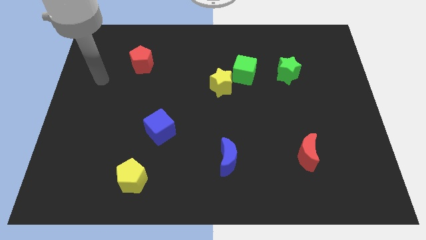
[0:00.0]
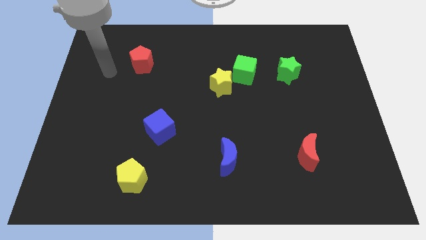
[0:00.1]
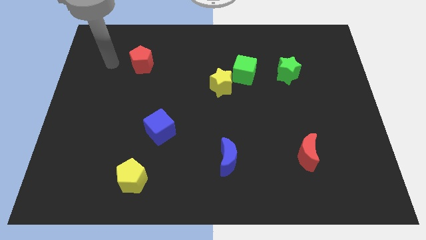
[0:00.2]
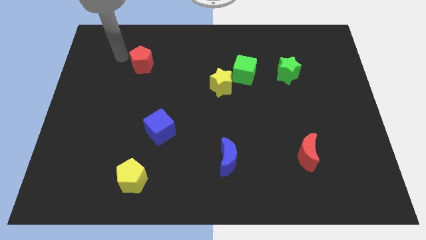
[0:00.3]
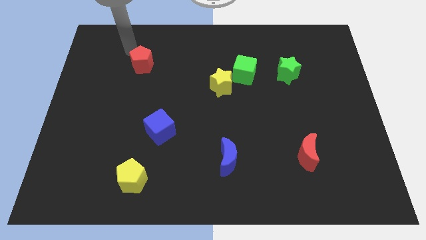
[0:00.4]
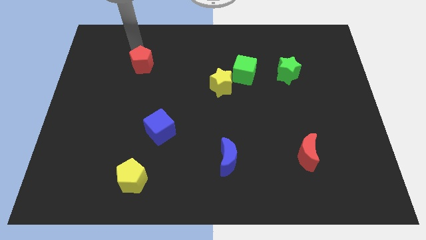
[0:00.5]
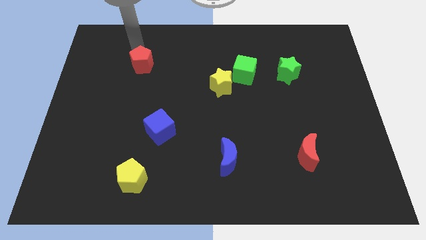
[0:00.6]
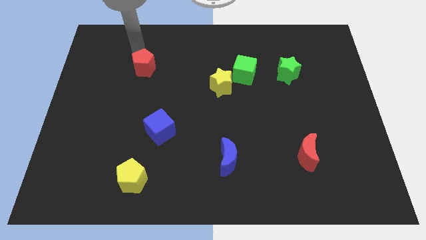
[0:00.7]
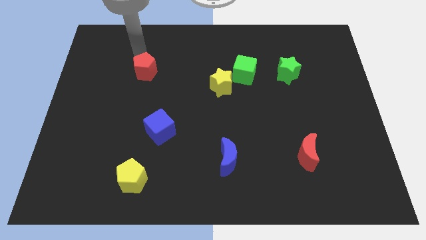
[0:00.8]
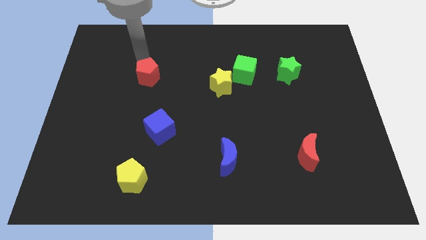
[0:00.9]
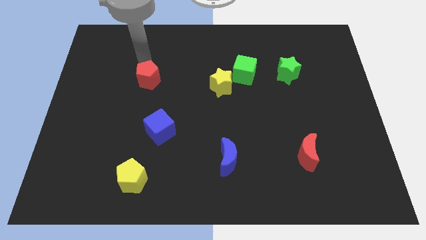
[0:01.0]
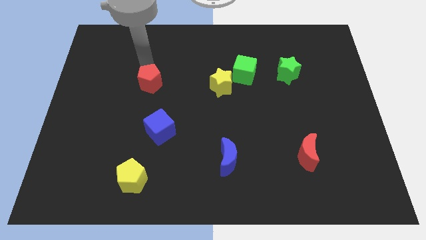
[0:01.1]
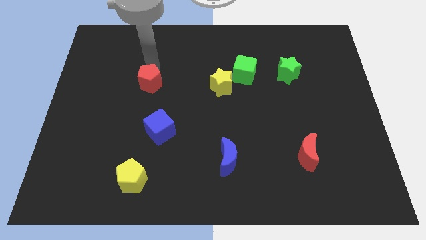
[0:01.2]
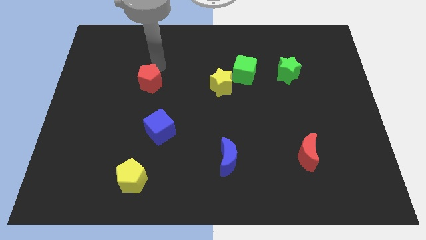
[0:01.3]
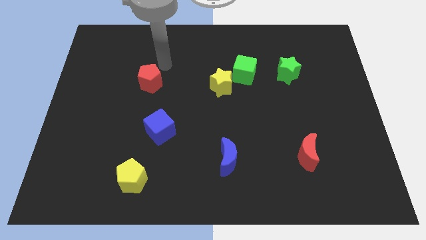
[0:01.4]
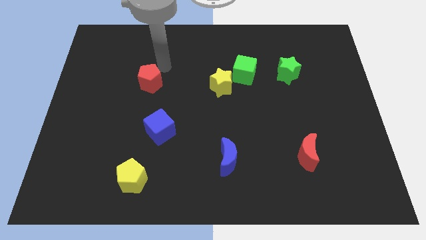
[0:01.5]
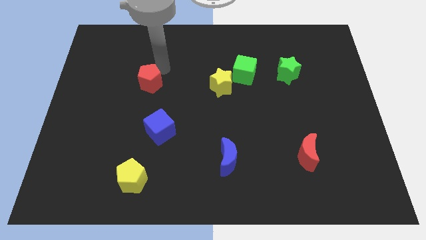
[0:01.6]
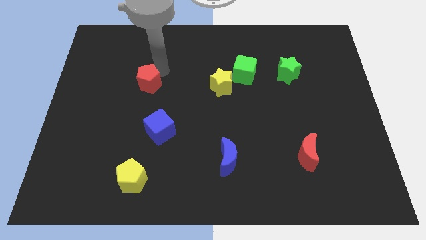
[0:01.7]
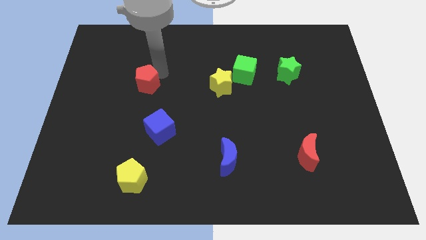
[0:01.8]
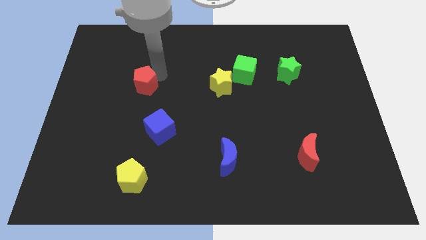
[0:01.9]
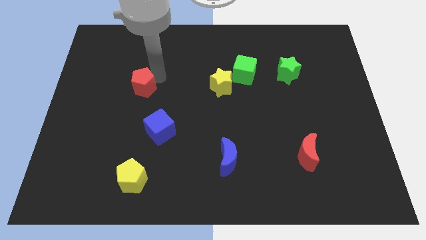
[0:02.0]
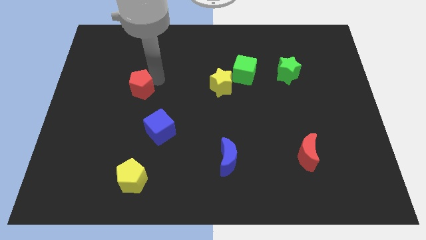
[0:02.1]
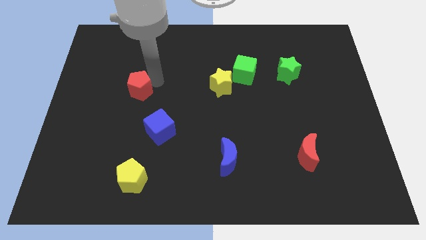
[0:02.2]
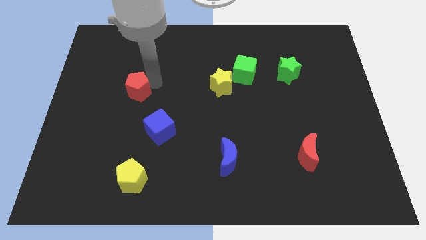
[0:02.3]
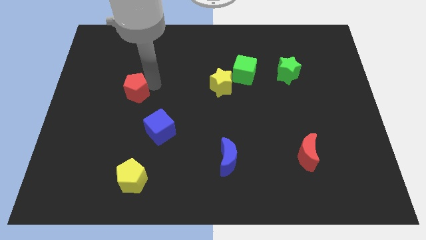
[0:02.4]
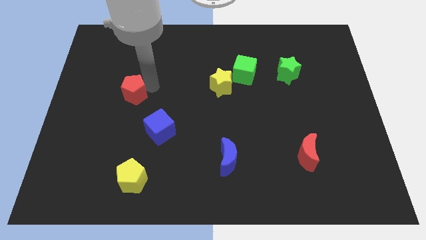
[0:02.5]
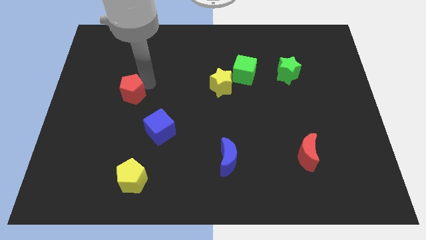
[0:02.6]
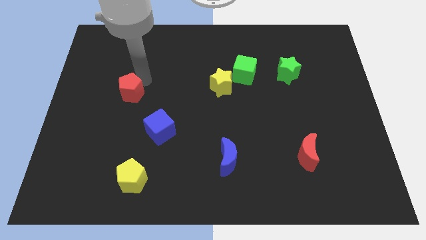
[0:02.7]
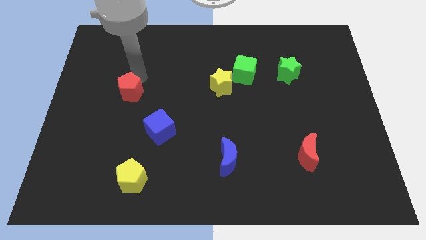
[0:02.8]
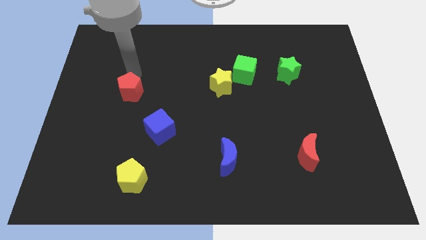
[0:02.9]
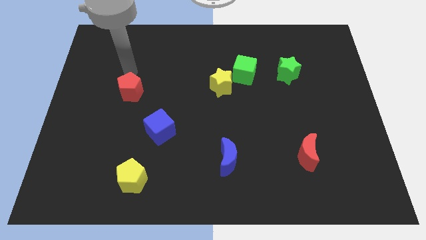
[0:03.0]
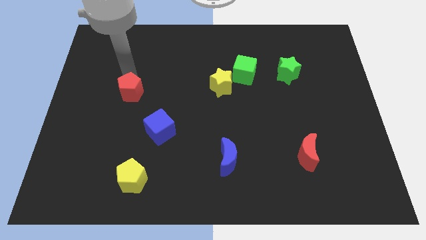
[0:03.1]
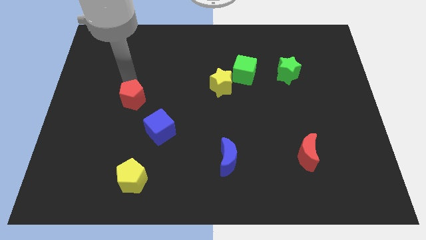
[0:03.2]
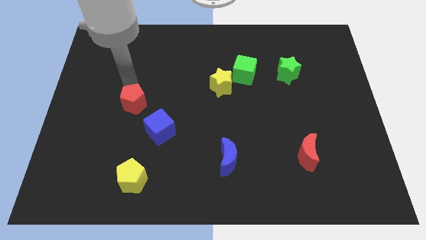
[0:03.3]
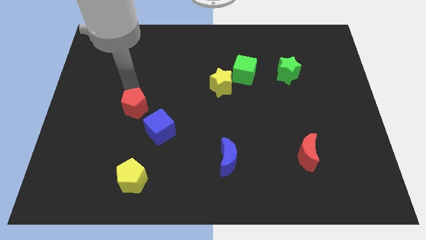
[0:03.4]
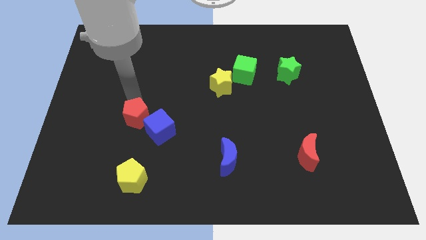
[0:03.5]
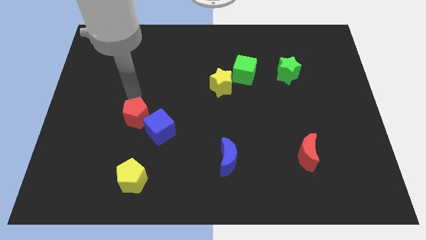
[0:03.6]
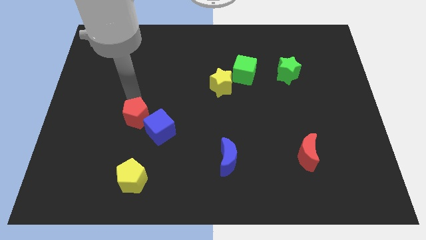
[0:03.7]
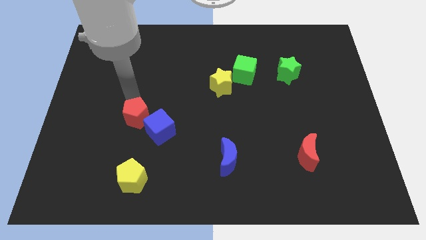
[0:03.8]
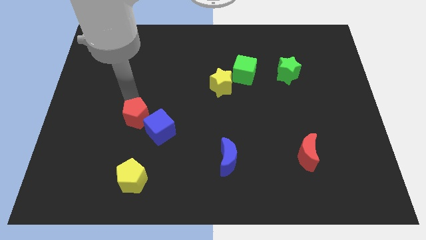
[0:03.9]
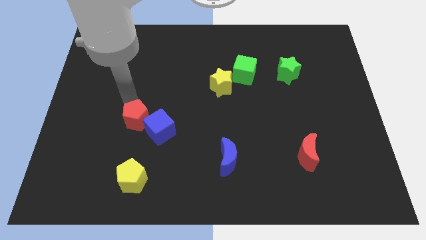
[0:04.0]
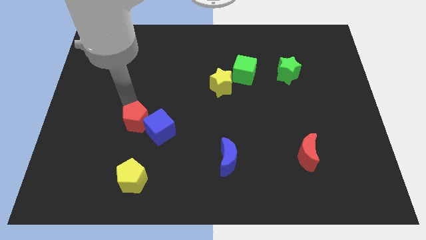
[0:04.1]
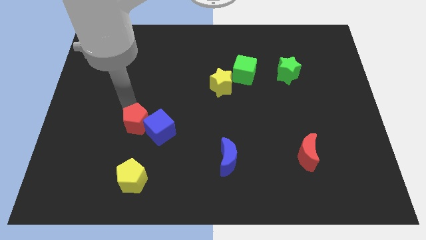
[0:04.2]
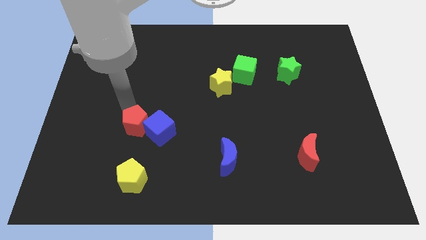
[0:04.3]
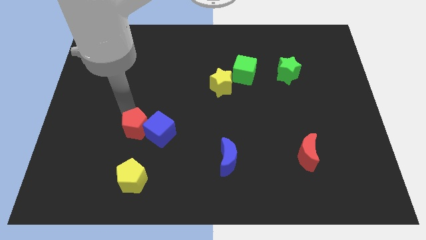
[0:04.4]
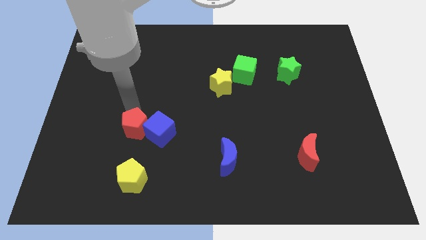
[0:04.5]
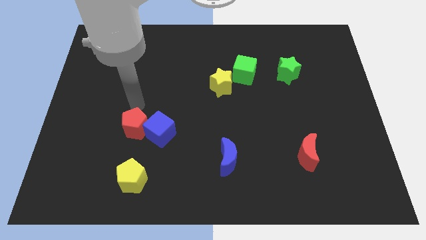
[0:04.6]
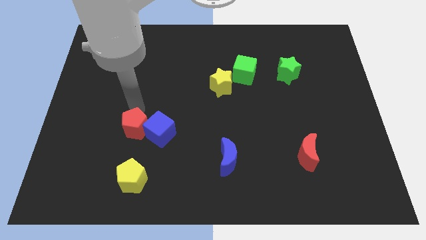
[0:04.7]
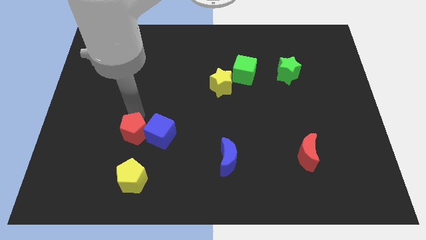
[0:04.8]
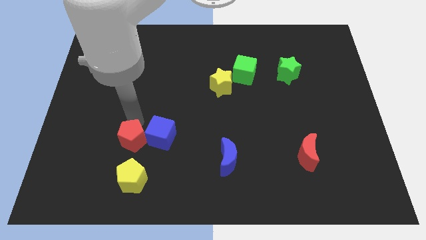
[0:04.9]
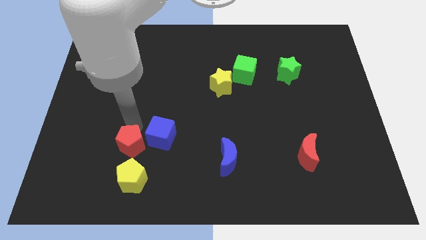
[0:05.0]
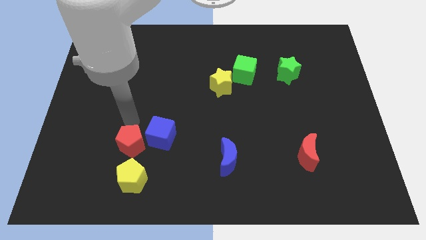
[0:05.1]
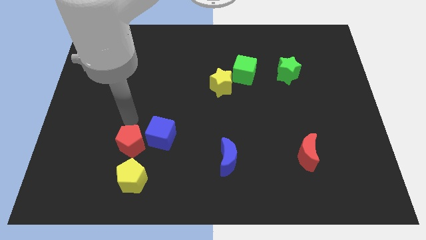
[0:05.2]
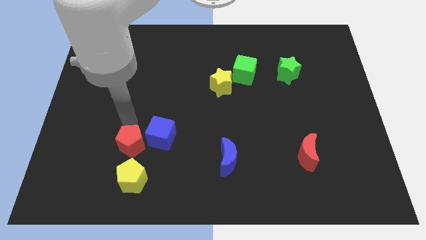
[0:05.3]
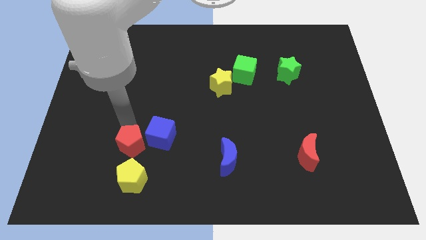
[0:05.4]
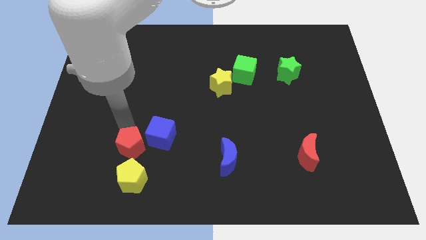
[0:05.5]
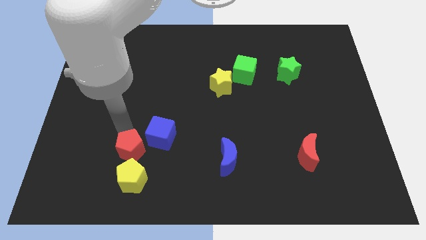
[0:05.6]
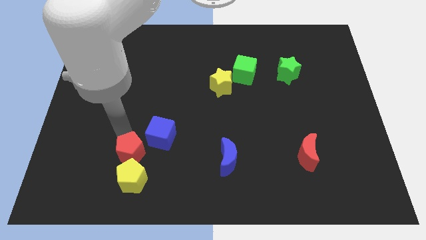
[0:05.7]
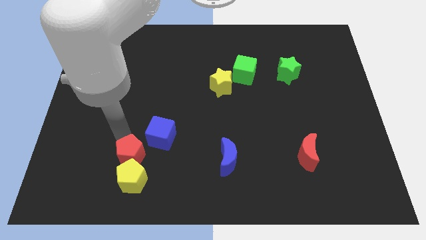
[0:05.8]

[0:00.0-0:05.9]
move the red pentagon towards the yellow pentagon

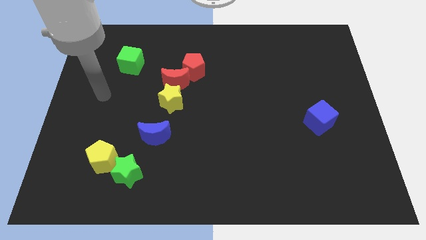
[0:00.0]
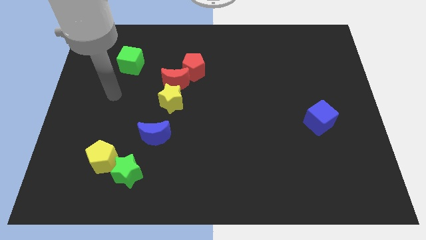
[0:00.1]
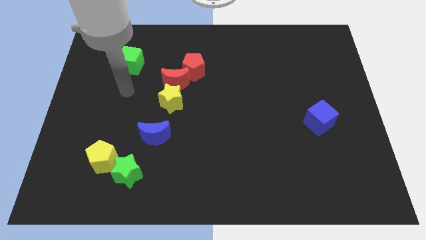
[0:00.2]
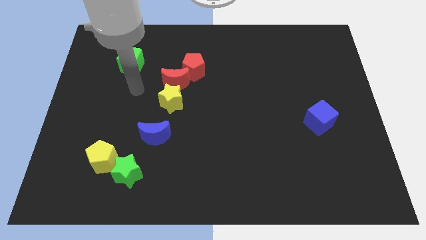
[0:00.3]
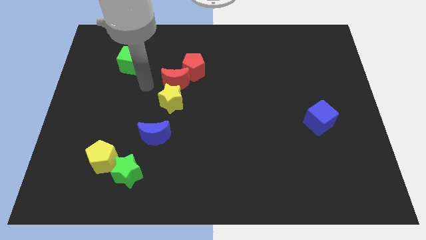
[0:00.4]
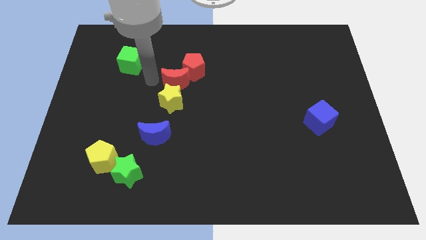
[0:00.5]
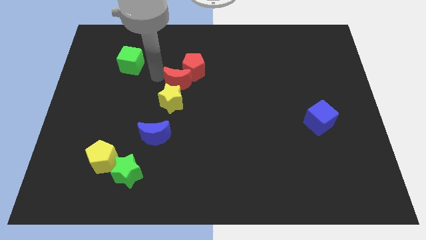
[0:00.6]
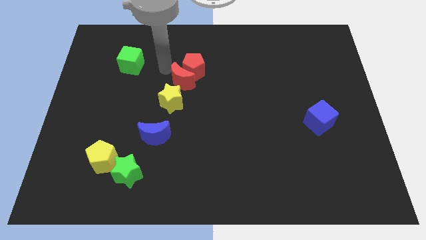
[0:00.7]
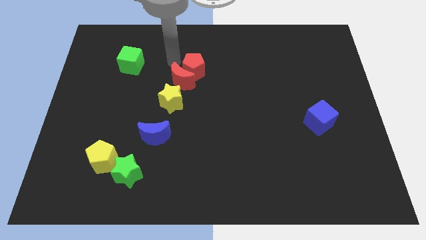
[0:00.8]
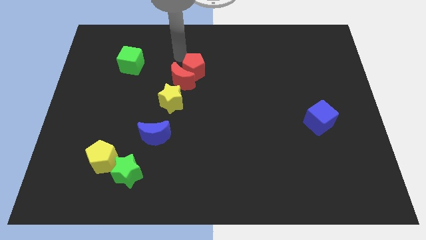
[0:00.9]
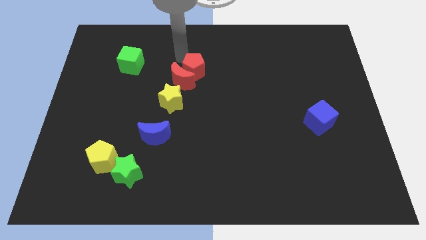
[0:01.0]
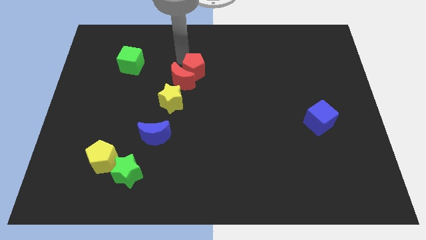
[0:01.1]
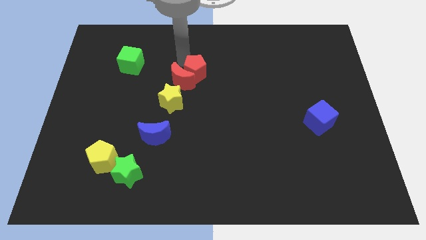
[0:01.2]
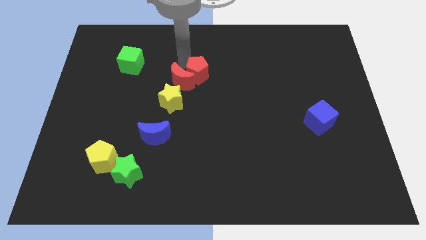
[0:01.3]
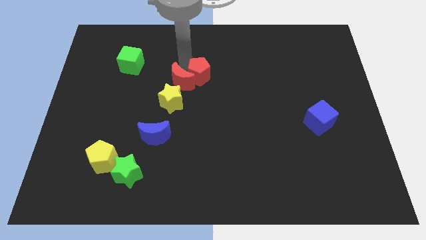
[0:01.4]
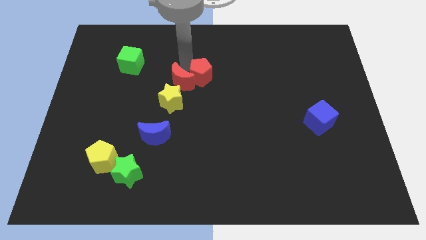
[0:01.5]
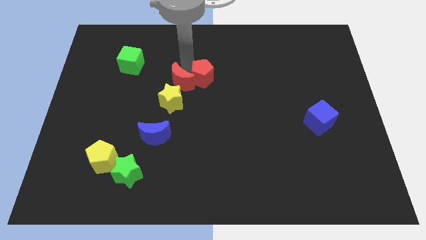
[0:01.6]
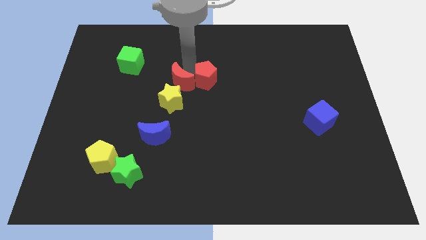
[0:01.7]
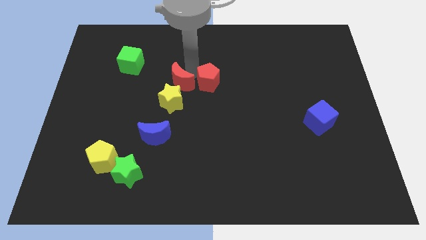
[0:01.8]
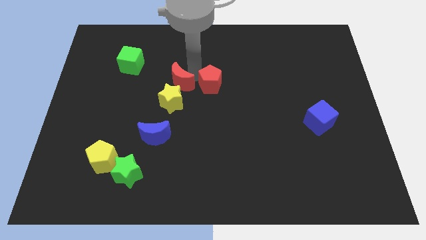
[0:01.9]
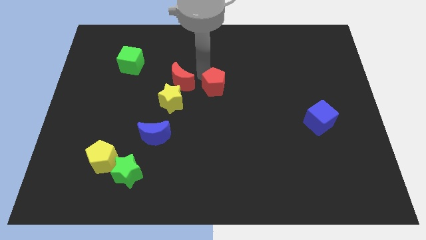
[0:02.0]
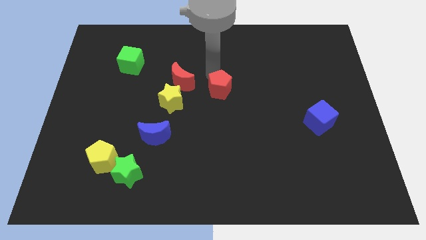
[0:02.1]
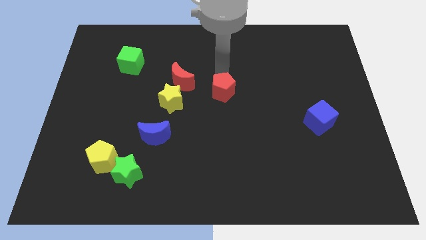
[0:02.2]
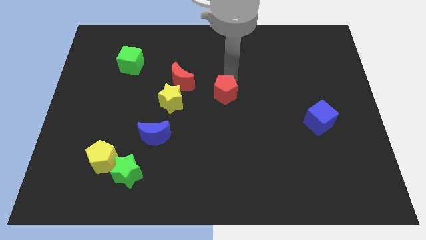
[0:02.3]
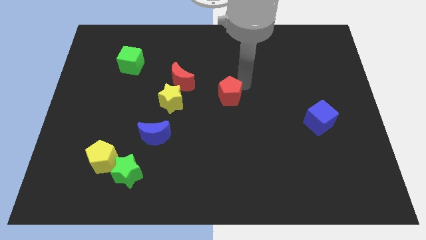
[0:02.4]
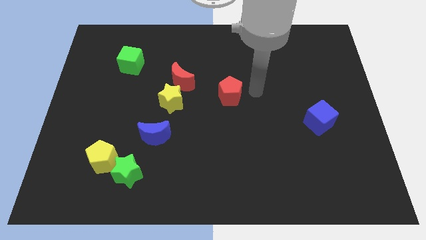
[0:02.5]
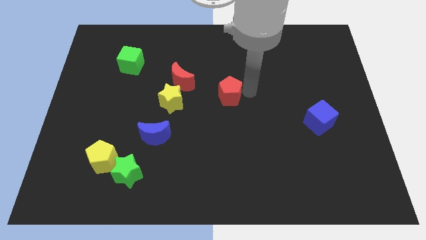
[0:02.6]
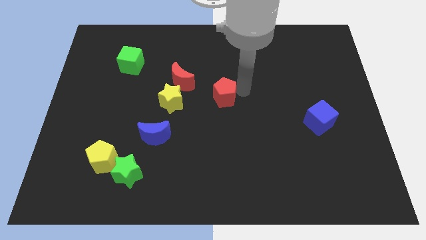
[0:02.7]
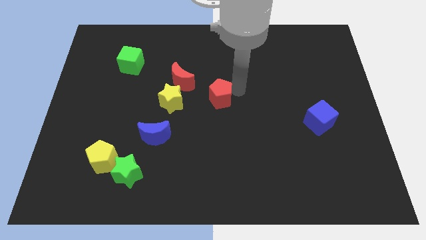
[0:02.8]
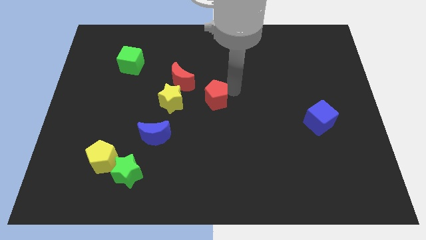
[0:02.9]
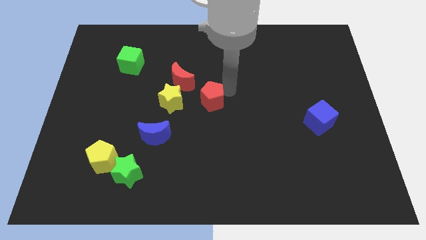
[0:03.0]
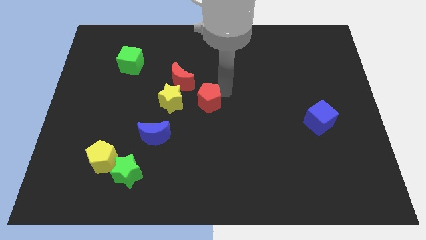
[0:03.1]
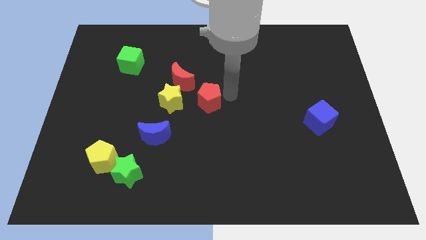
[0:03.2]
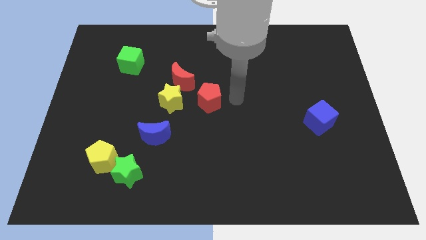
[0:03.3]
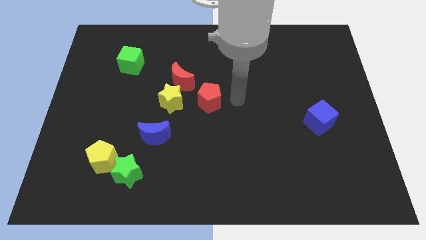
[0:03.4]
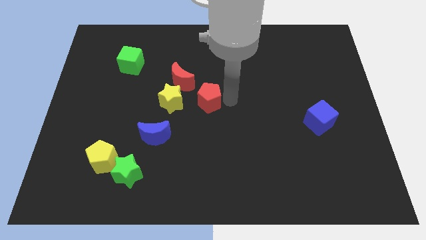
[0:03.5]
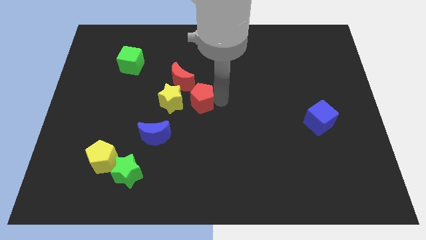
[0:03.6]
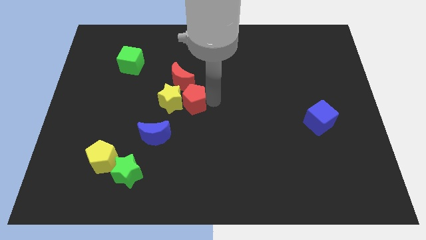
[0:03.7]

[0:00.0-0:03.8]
slide the red pentagon close to the yellow star
